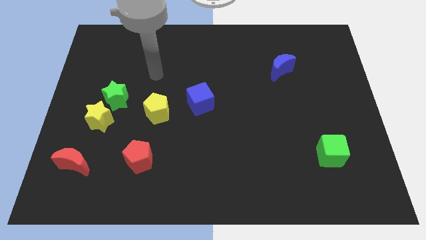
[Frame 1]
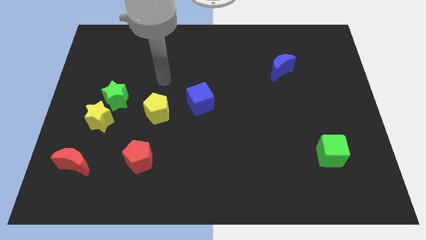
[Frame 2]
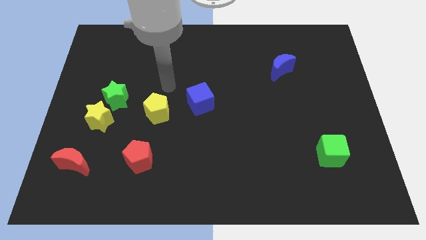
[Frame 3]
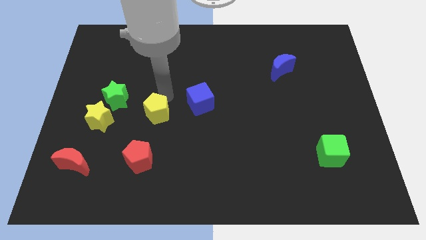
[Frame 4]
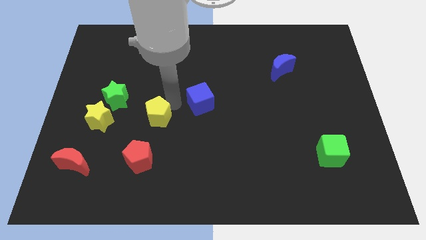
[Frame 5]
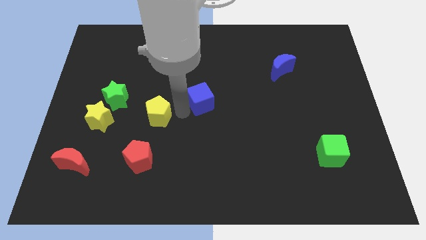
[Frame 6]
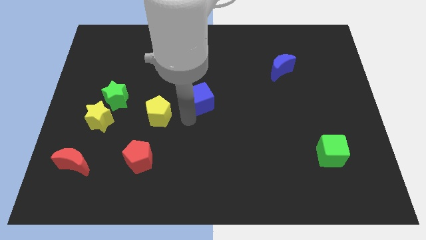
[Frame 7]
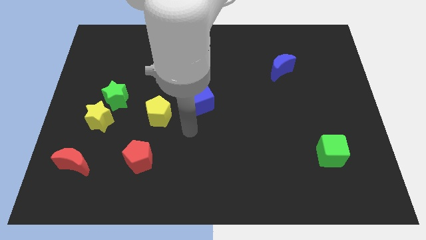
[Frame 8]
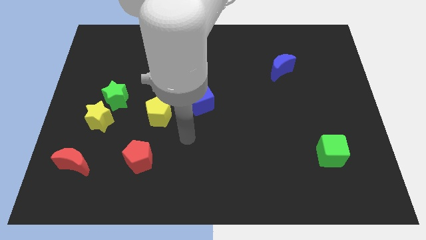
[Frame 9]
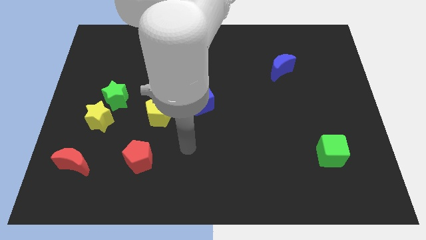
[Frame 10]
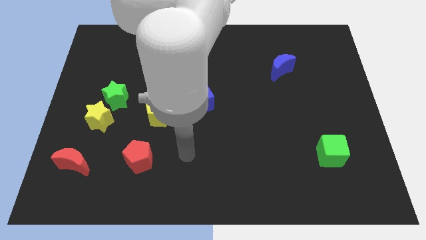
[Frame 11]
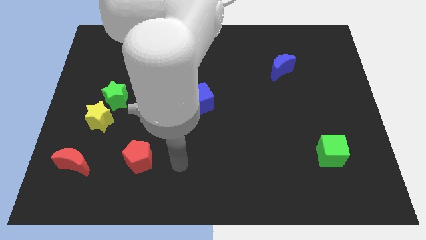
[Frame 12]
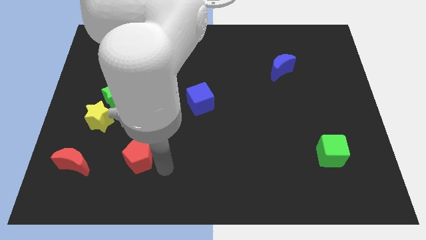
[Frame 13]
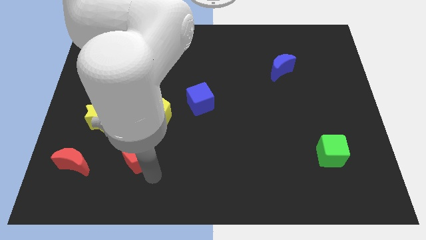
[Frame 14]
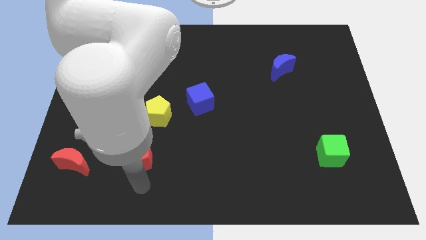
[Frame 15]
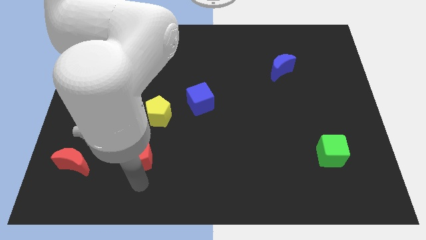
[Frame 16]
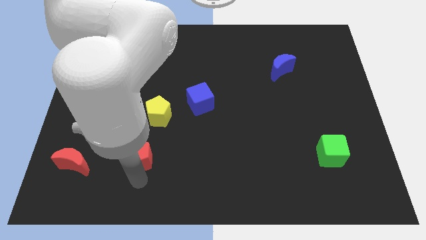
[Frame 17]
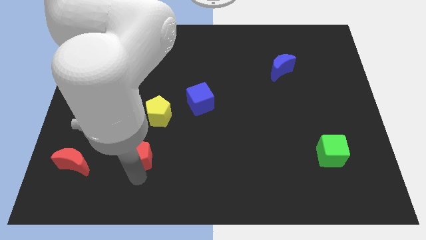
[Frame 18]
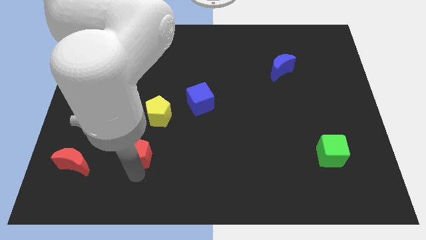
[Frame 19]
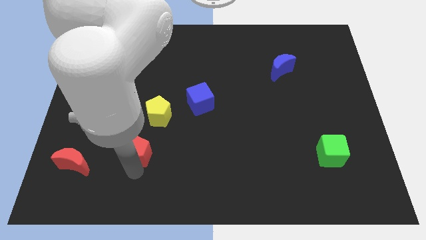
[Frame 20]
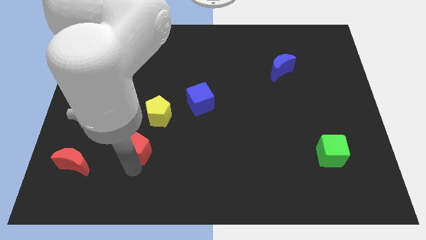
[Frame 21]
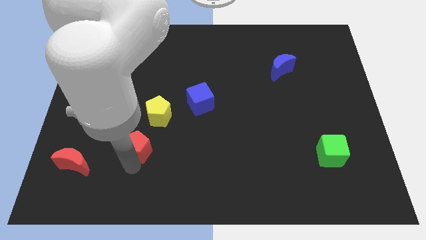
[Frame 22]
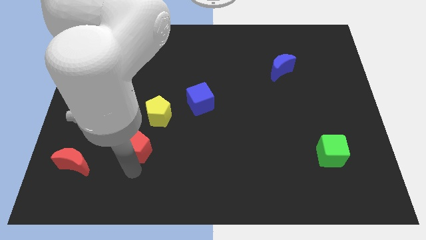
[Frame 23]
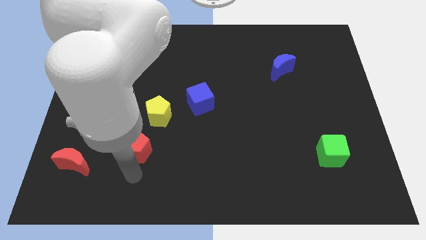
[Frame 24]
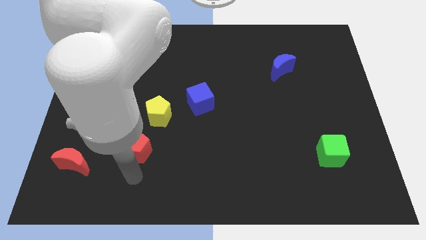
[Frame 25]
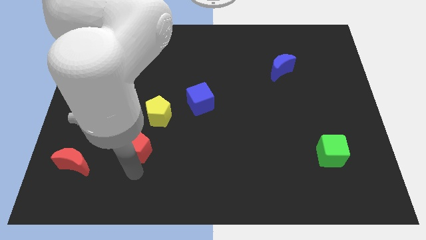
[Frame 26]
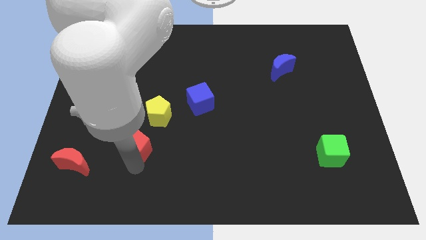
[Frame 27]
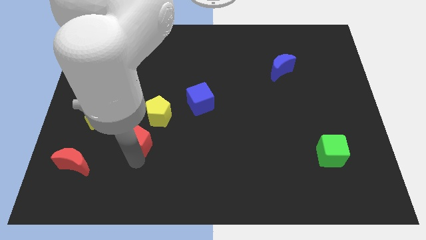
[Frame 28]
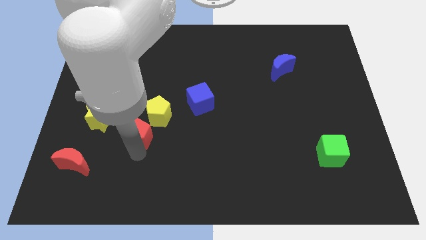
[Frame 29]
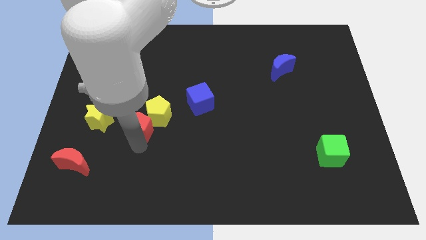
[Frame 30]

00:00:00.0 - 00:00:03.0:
slightly move the red pentagon up

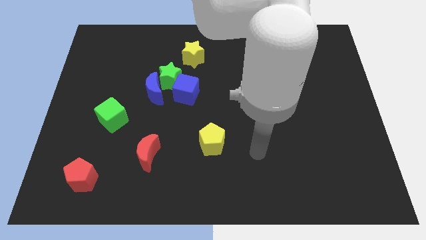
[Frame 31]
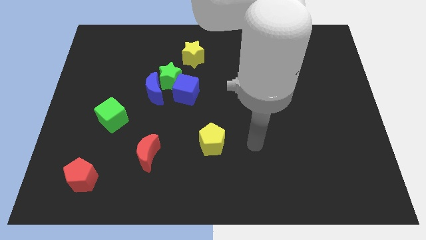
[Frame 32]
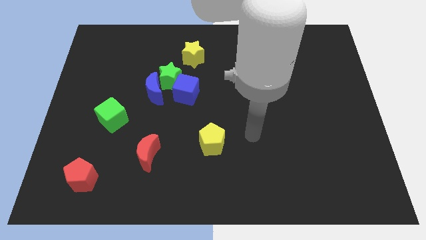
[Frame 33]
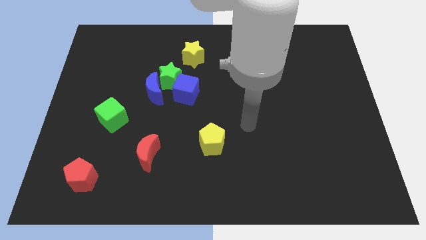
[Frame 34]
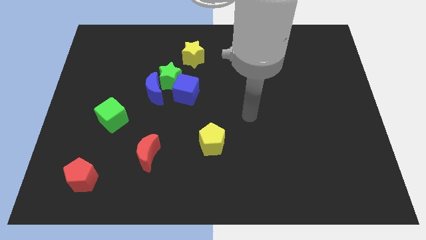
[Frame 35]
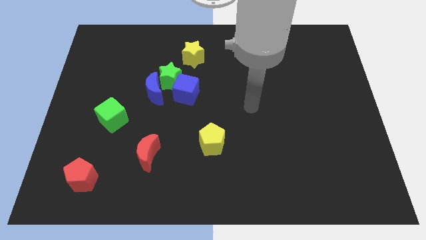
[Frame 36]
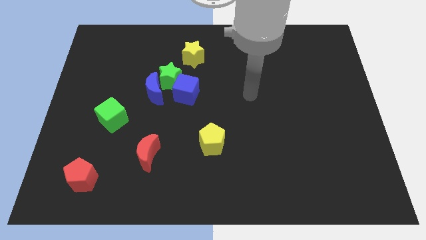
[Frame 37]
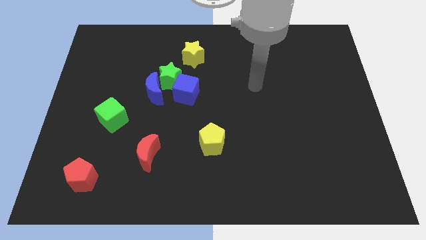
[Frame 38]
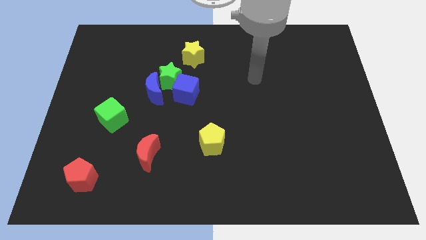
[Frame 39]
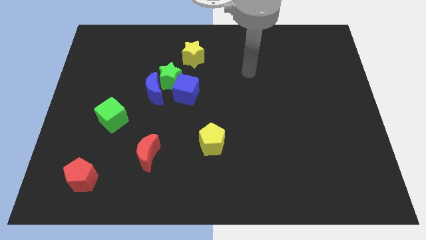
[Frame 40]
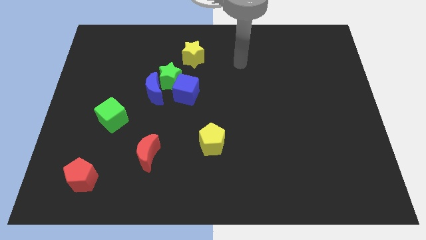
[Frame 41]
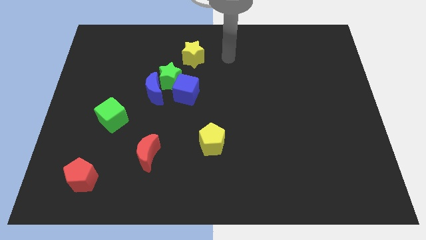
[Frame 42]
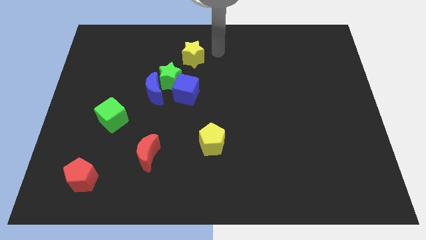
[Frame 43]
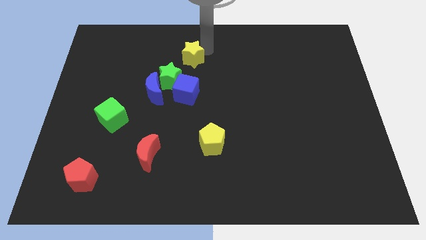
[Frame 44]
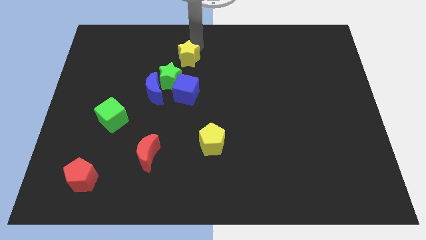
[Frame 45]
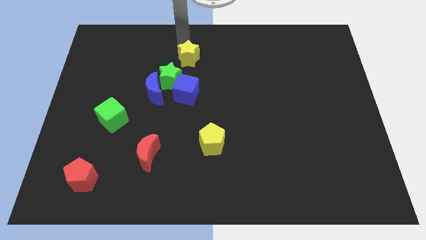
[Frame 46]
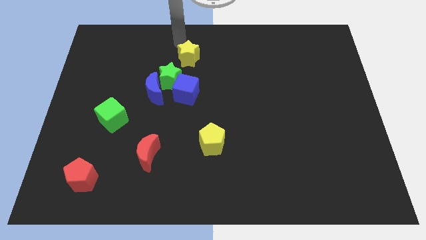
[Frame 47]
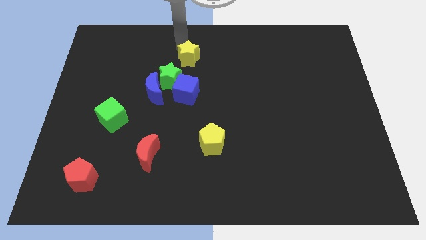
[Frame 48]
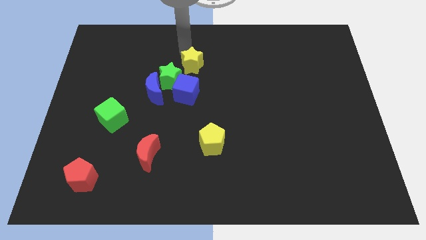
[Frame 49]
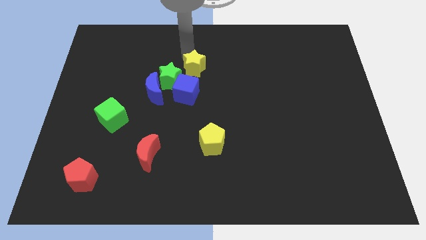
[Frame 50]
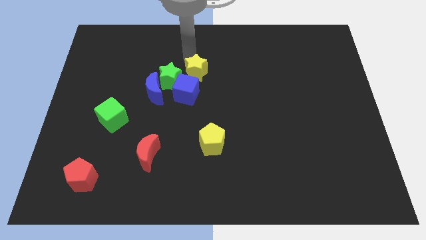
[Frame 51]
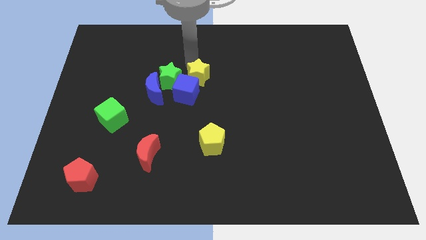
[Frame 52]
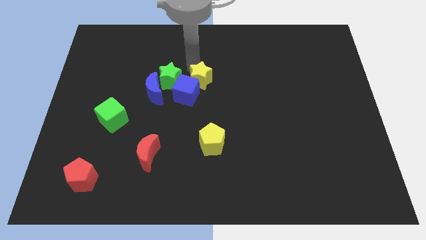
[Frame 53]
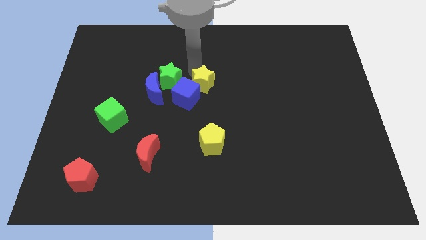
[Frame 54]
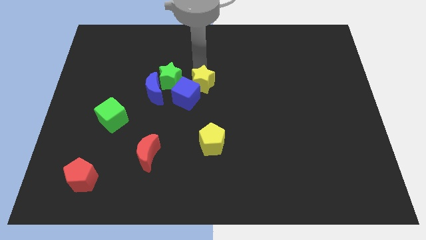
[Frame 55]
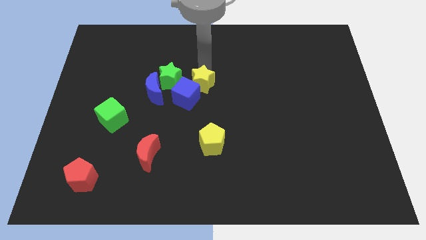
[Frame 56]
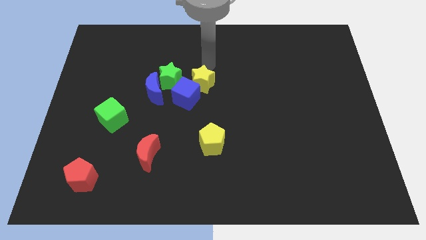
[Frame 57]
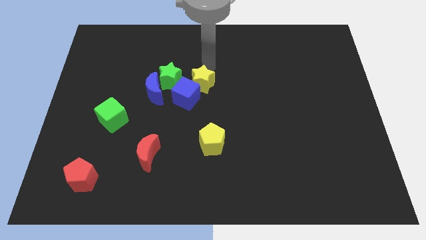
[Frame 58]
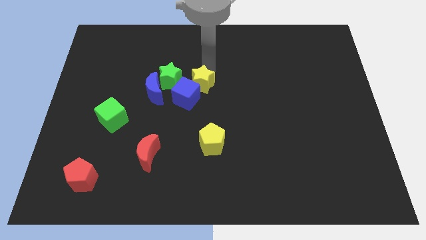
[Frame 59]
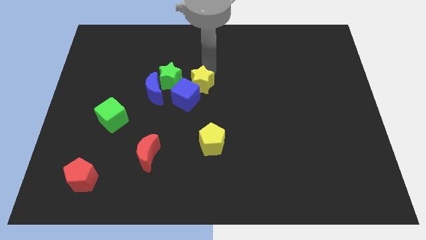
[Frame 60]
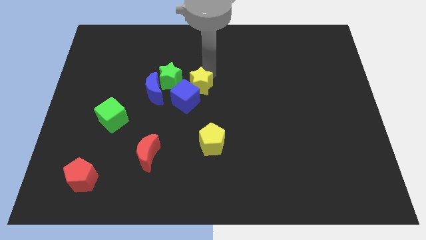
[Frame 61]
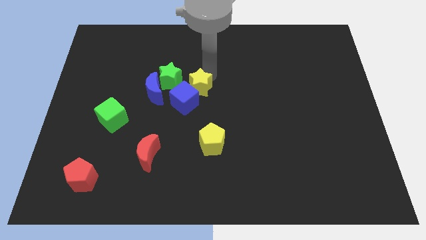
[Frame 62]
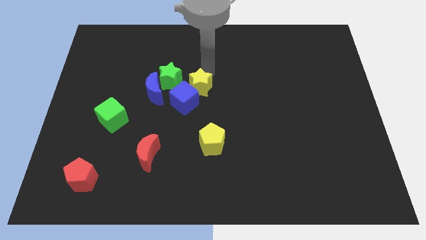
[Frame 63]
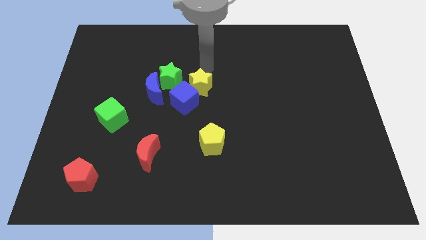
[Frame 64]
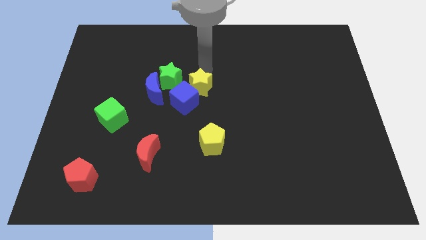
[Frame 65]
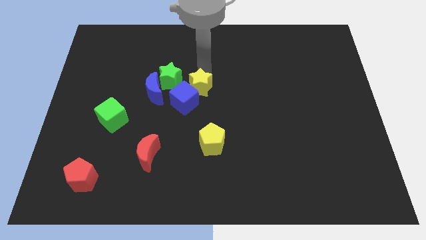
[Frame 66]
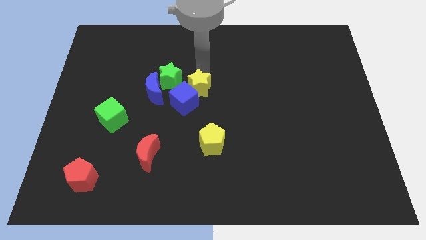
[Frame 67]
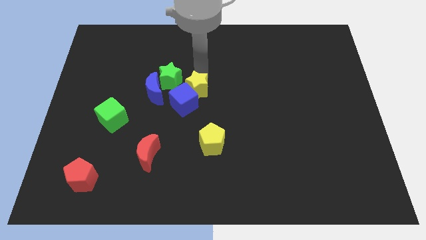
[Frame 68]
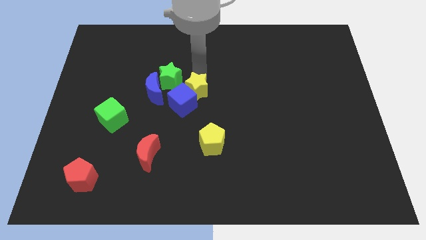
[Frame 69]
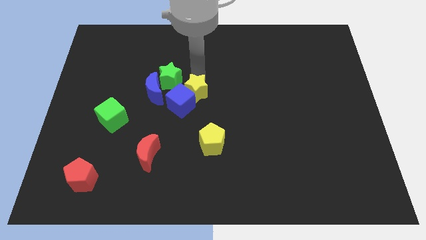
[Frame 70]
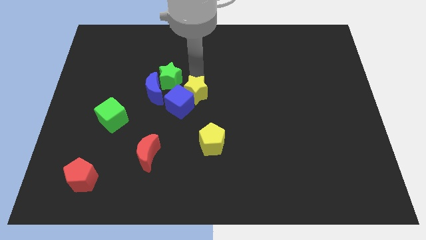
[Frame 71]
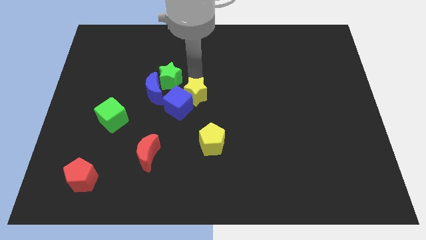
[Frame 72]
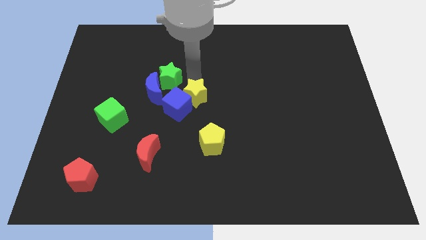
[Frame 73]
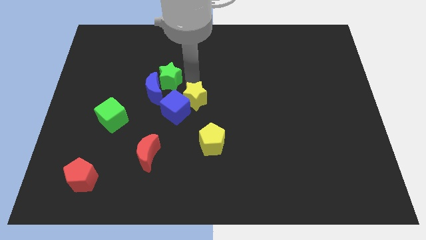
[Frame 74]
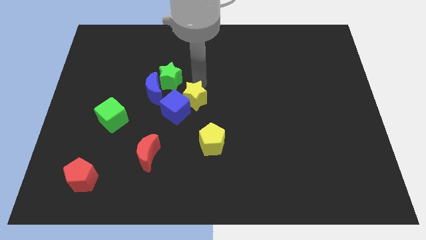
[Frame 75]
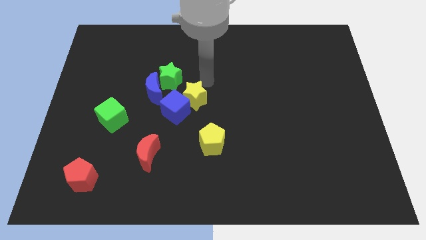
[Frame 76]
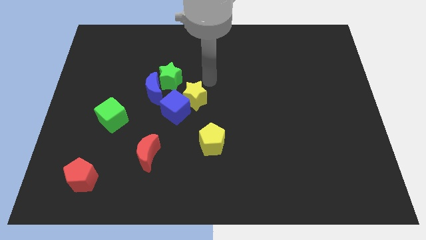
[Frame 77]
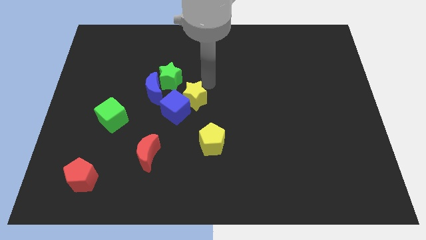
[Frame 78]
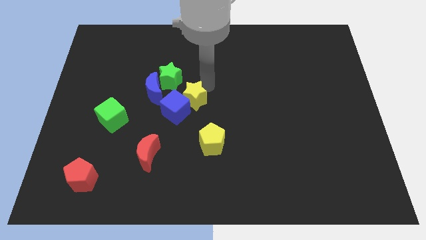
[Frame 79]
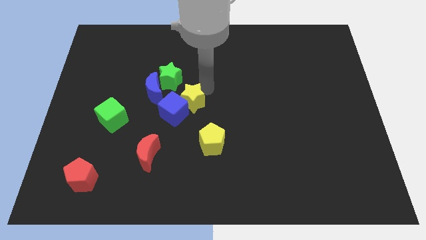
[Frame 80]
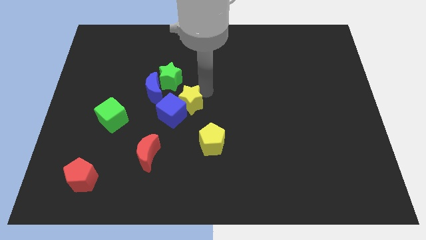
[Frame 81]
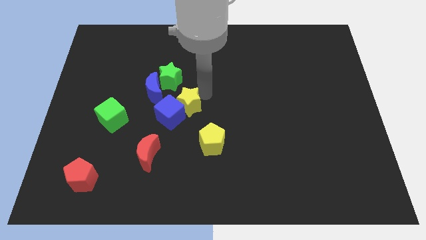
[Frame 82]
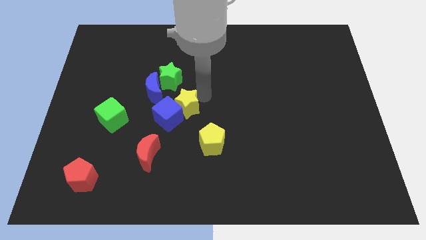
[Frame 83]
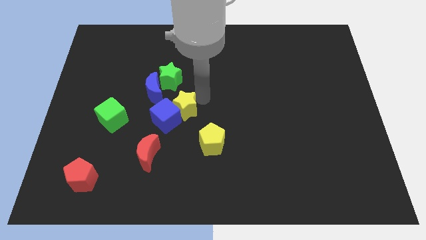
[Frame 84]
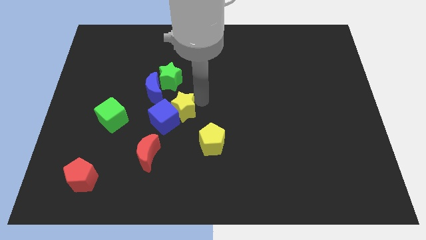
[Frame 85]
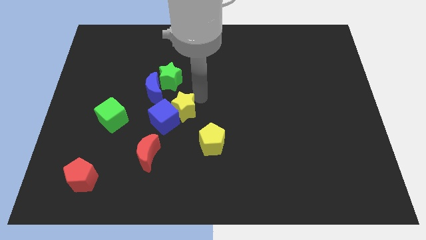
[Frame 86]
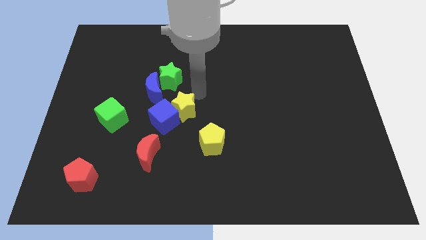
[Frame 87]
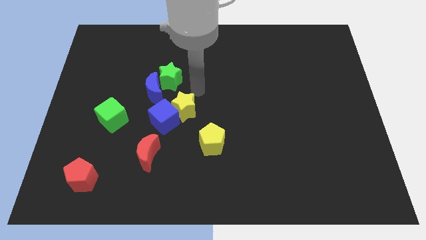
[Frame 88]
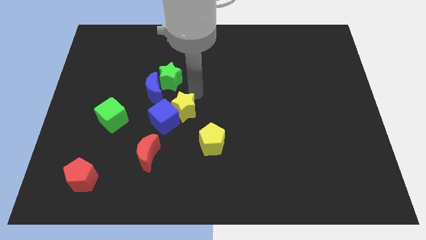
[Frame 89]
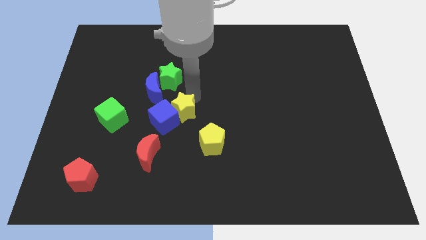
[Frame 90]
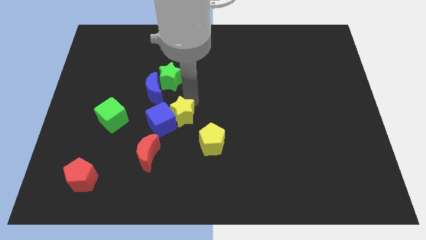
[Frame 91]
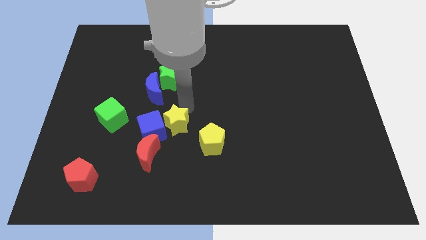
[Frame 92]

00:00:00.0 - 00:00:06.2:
push the yellow star downwards
